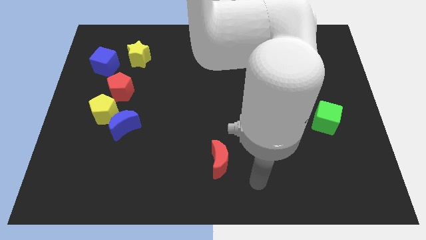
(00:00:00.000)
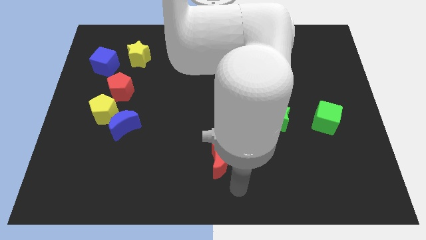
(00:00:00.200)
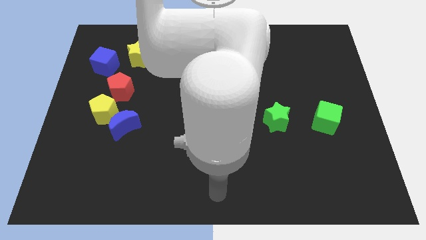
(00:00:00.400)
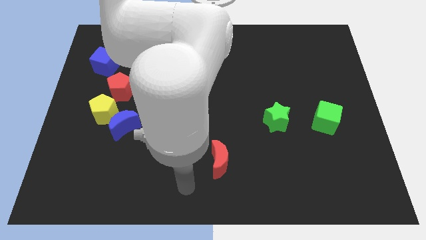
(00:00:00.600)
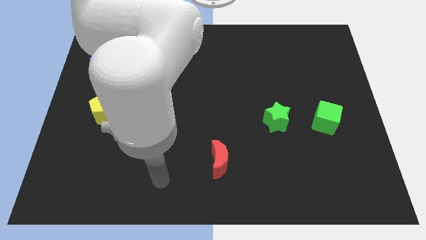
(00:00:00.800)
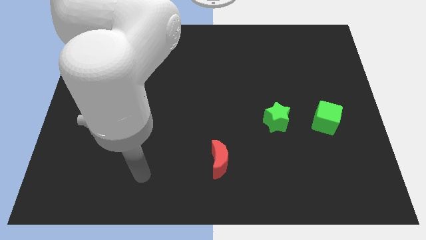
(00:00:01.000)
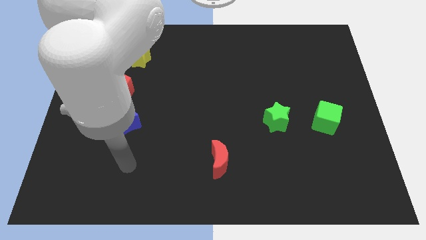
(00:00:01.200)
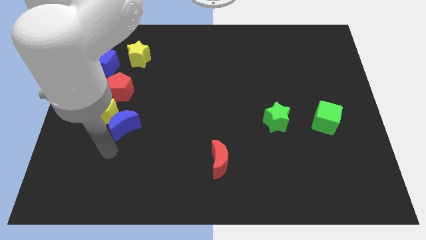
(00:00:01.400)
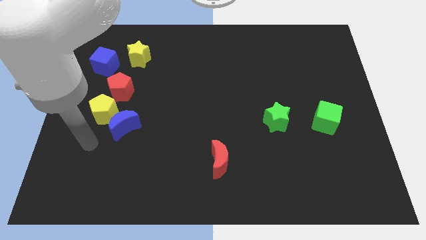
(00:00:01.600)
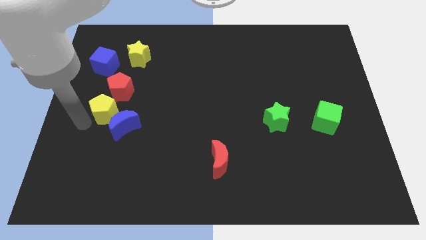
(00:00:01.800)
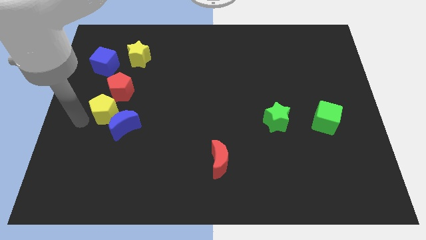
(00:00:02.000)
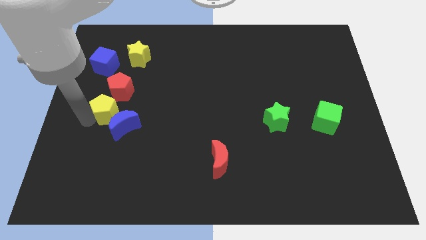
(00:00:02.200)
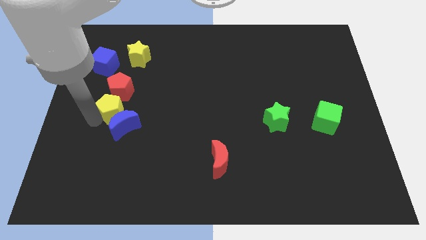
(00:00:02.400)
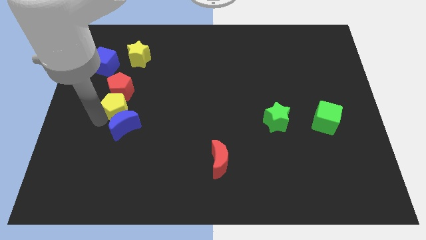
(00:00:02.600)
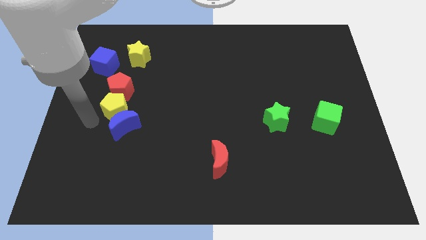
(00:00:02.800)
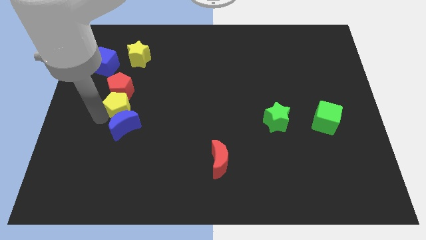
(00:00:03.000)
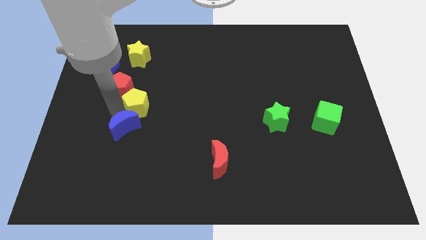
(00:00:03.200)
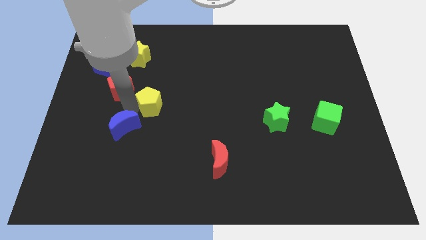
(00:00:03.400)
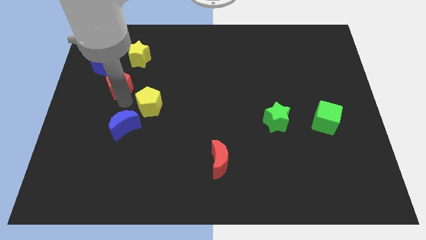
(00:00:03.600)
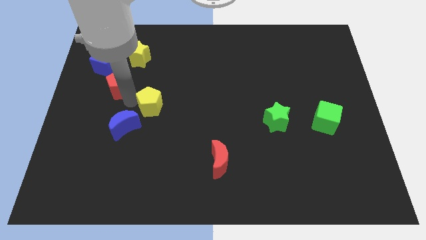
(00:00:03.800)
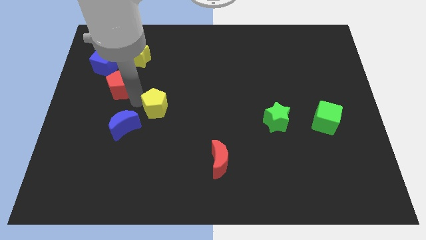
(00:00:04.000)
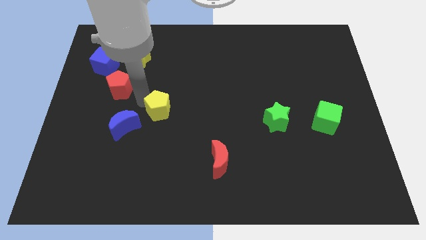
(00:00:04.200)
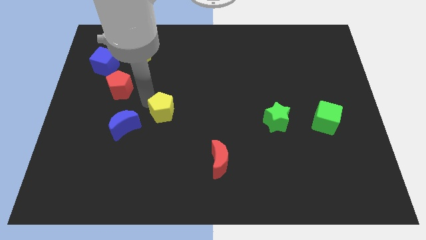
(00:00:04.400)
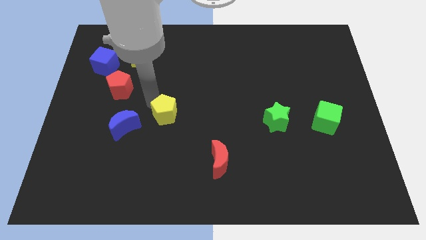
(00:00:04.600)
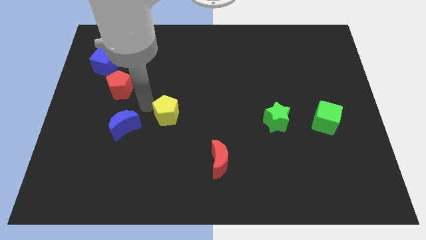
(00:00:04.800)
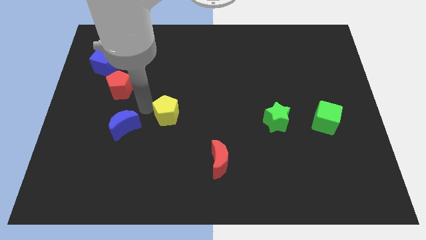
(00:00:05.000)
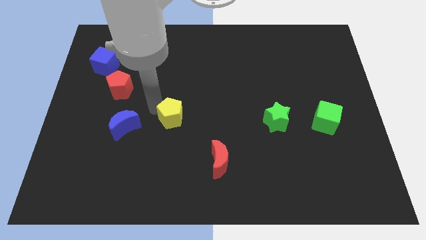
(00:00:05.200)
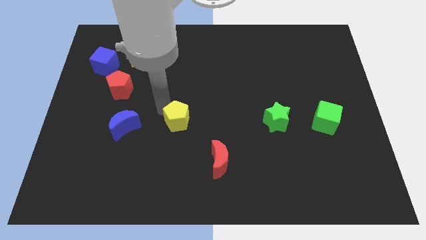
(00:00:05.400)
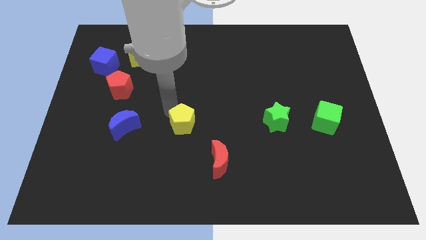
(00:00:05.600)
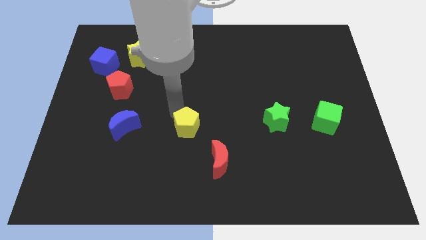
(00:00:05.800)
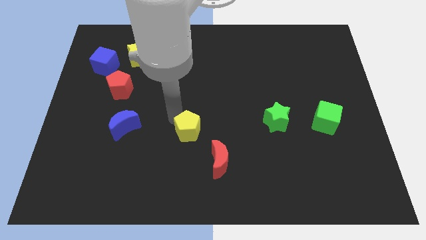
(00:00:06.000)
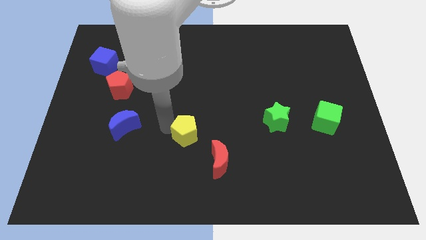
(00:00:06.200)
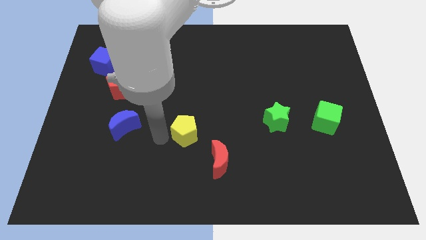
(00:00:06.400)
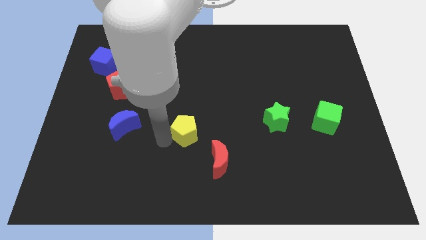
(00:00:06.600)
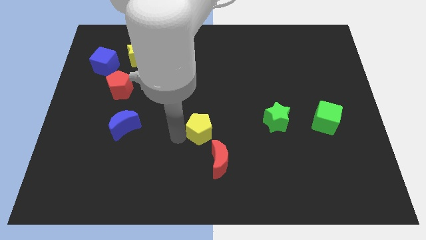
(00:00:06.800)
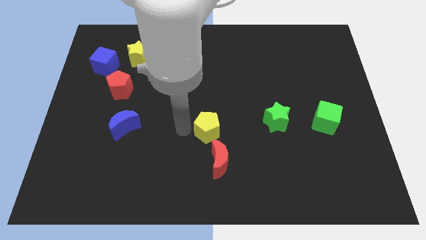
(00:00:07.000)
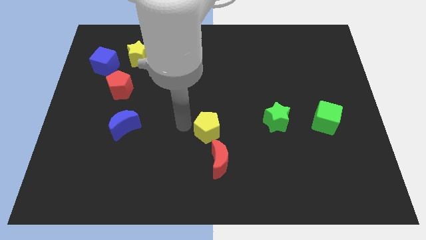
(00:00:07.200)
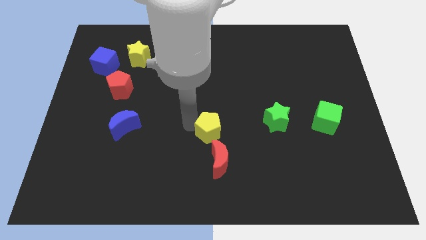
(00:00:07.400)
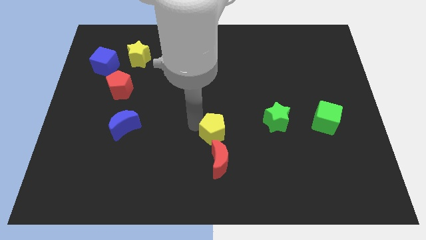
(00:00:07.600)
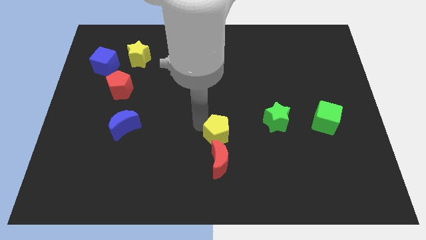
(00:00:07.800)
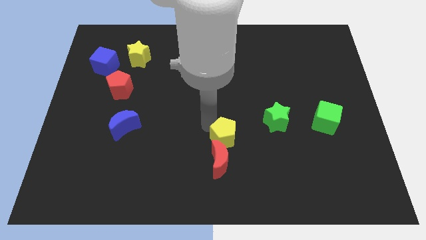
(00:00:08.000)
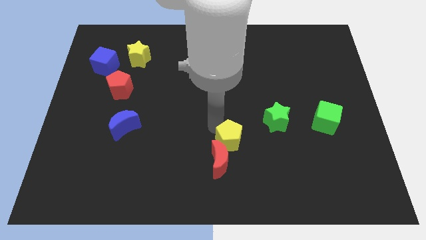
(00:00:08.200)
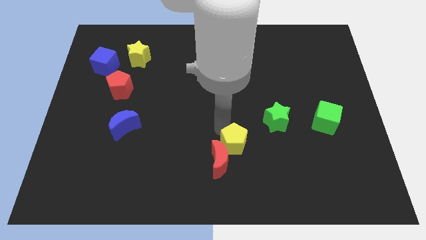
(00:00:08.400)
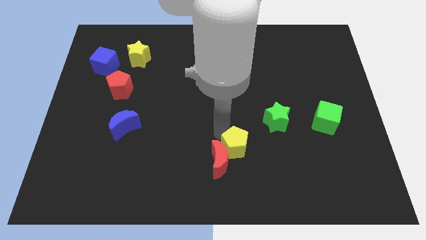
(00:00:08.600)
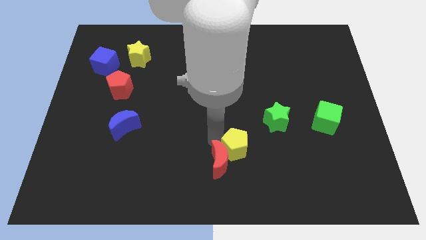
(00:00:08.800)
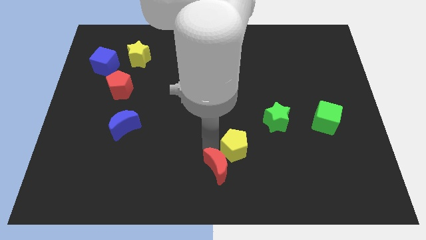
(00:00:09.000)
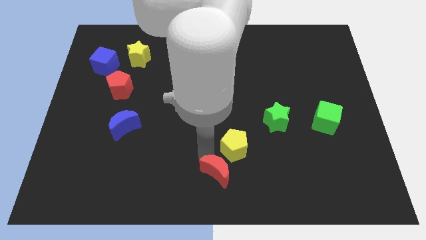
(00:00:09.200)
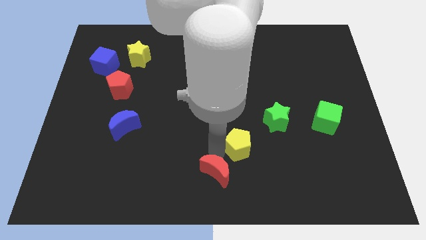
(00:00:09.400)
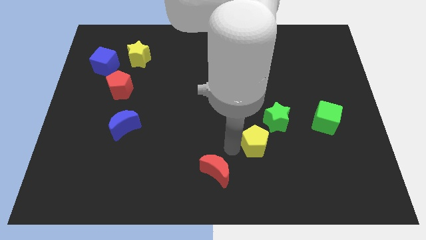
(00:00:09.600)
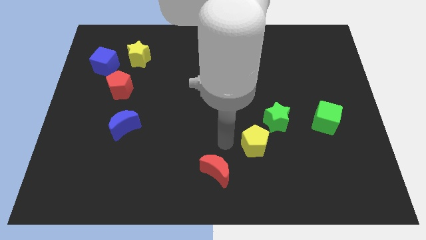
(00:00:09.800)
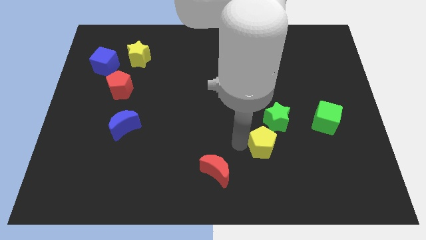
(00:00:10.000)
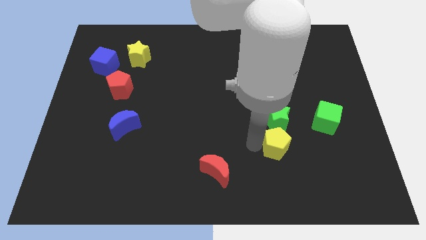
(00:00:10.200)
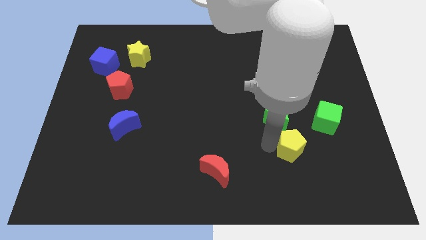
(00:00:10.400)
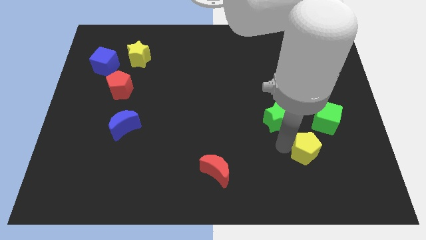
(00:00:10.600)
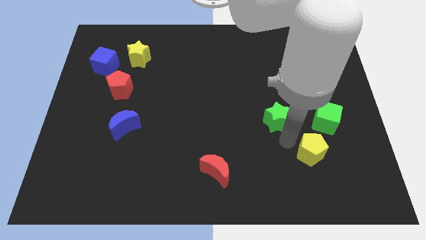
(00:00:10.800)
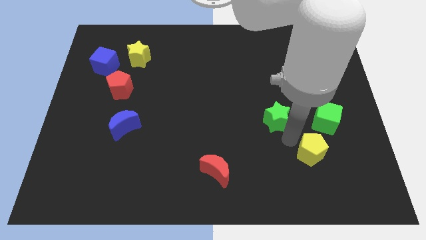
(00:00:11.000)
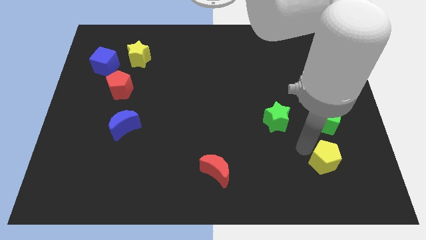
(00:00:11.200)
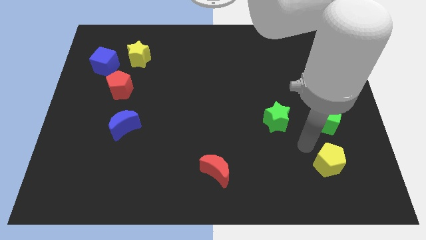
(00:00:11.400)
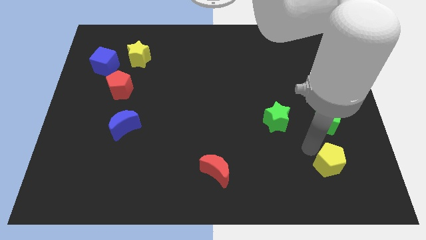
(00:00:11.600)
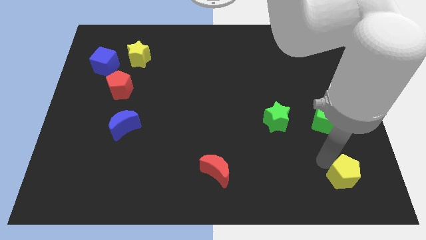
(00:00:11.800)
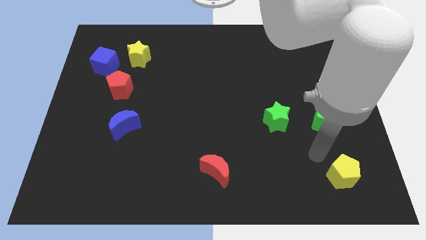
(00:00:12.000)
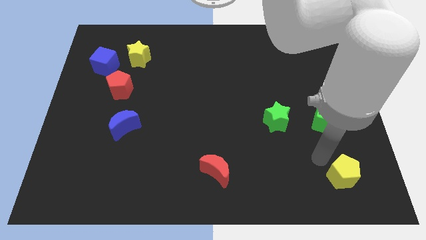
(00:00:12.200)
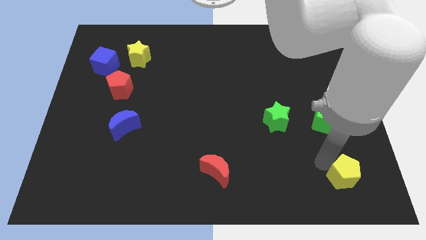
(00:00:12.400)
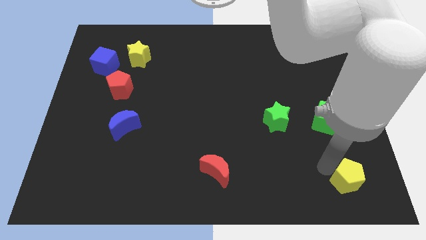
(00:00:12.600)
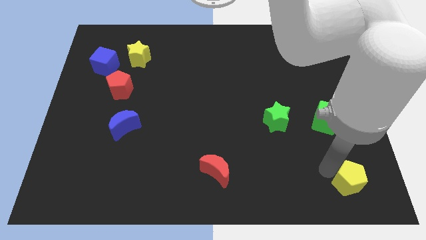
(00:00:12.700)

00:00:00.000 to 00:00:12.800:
slide the yellow pentagon to the bottom right of the board
